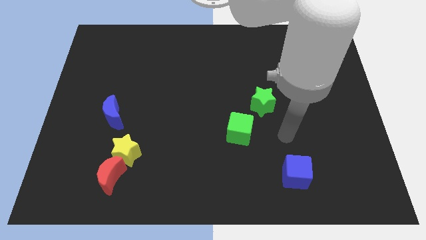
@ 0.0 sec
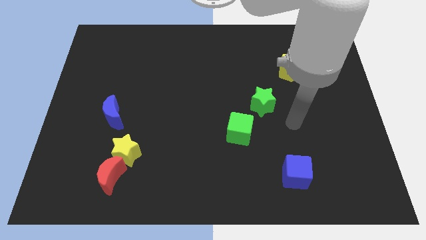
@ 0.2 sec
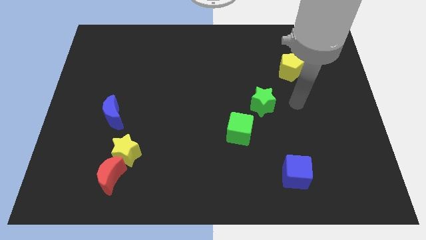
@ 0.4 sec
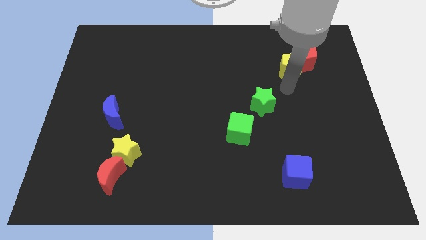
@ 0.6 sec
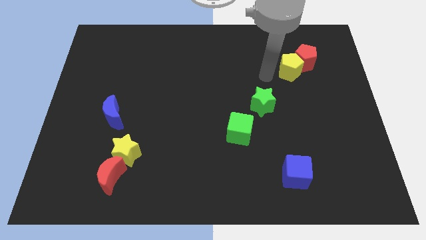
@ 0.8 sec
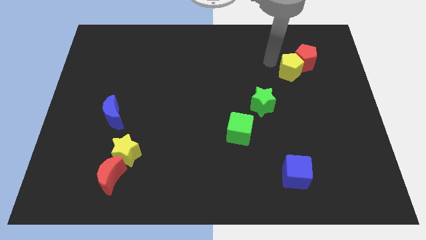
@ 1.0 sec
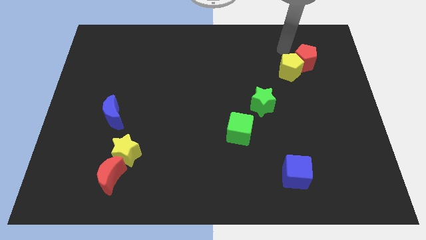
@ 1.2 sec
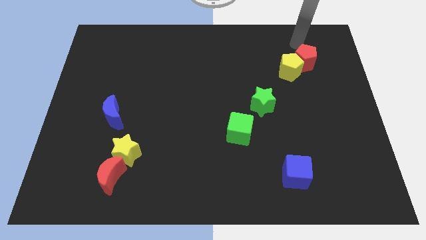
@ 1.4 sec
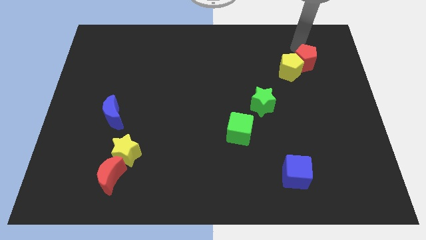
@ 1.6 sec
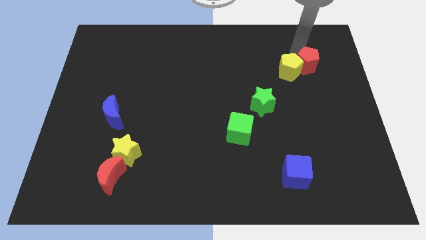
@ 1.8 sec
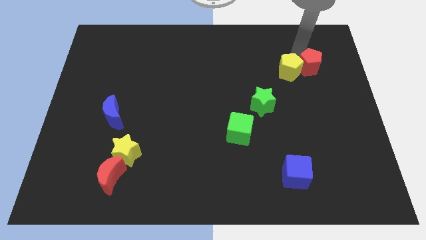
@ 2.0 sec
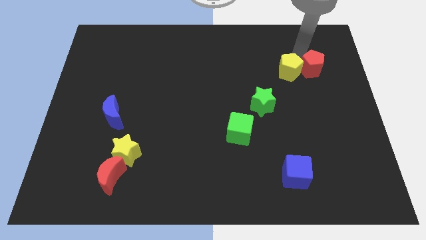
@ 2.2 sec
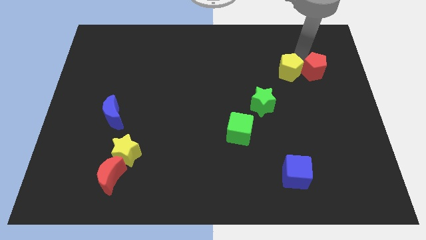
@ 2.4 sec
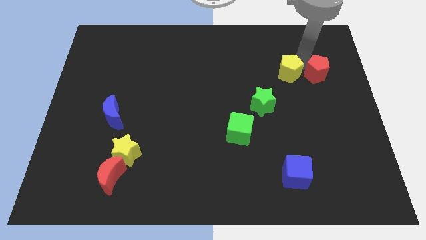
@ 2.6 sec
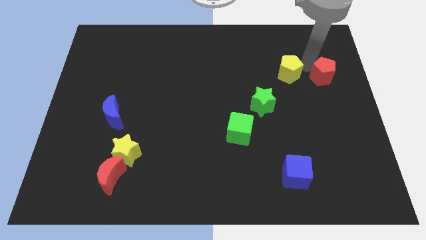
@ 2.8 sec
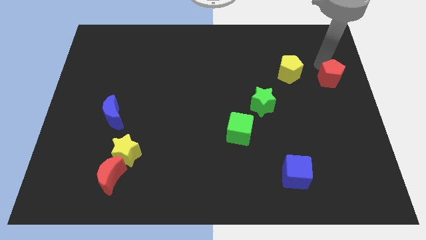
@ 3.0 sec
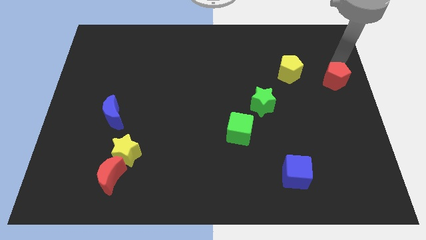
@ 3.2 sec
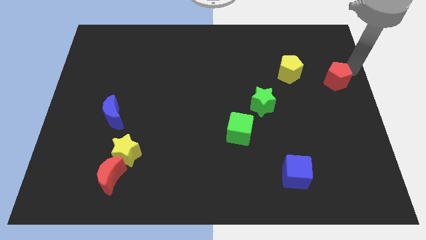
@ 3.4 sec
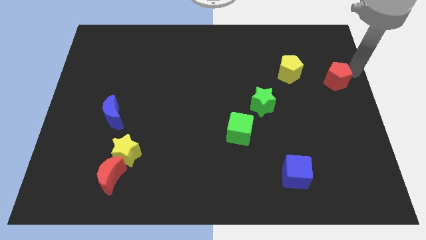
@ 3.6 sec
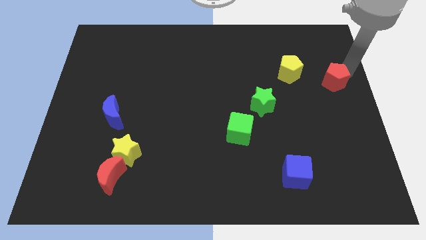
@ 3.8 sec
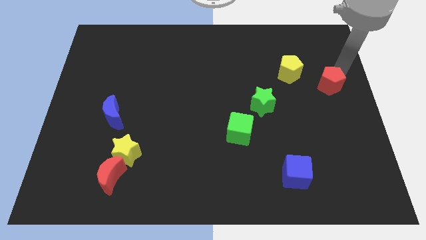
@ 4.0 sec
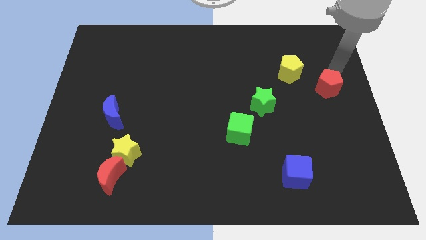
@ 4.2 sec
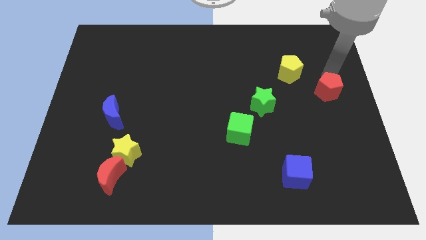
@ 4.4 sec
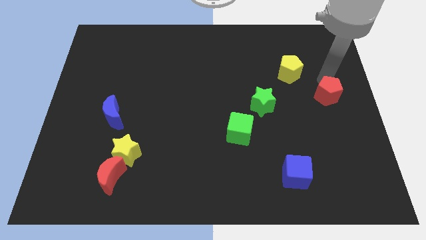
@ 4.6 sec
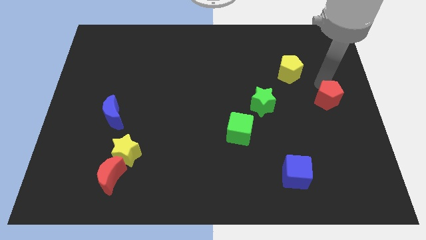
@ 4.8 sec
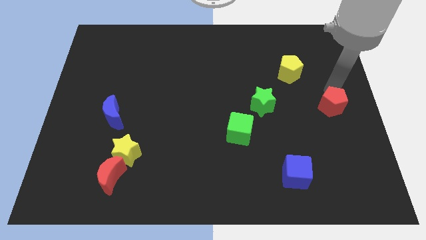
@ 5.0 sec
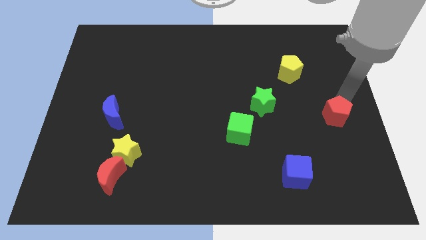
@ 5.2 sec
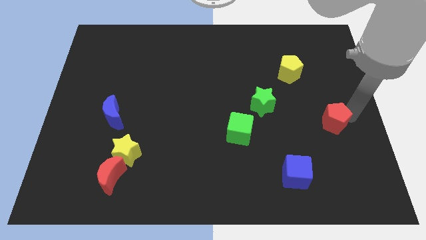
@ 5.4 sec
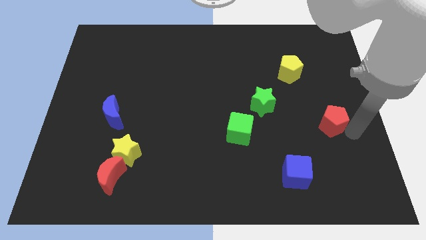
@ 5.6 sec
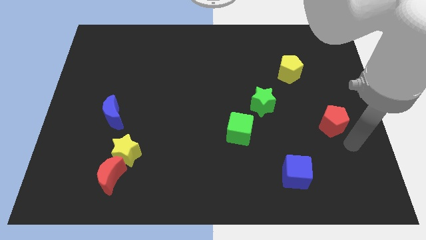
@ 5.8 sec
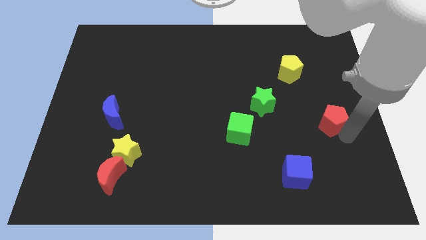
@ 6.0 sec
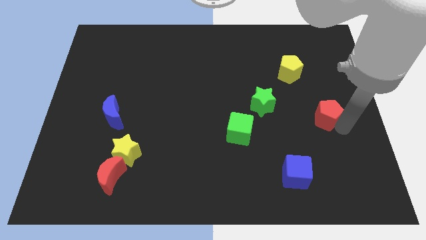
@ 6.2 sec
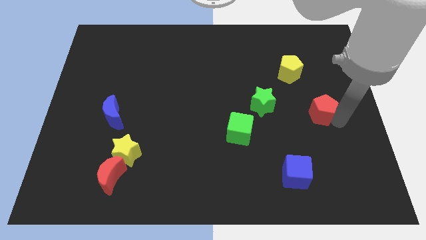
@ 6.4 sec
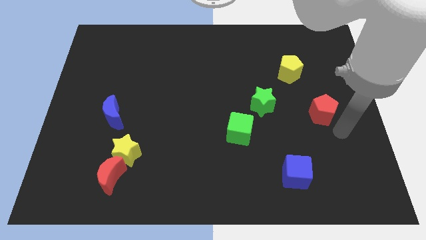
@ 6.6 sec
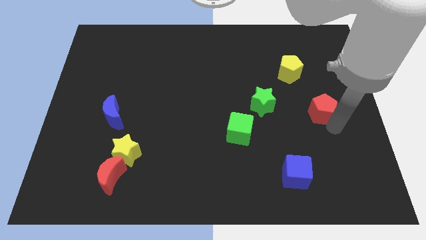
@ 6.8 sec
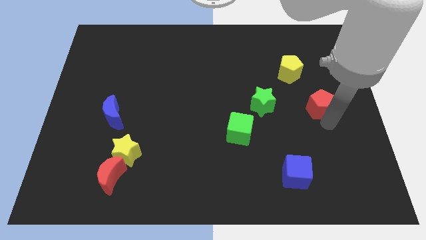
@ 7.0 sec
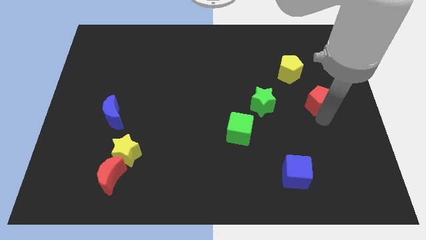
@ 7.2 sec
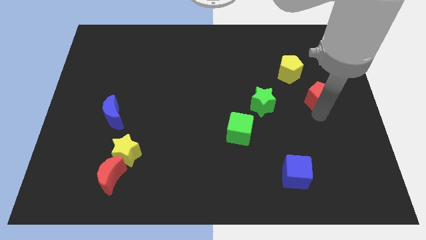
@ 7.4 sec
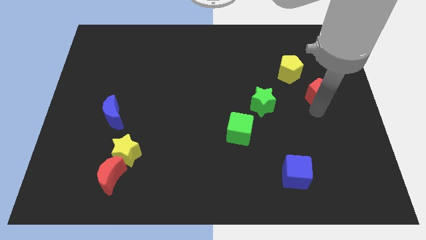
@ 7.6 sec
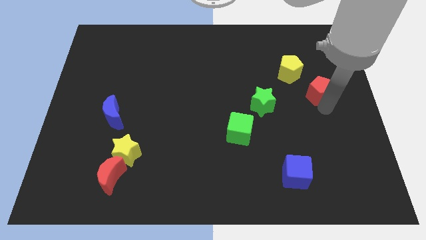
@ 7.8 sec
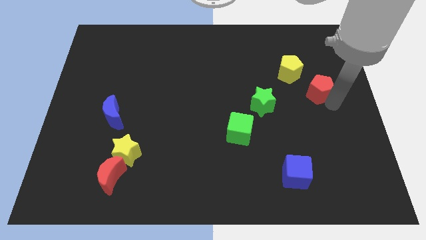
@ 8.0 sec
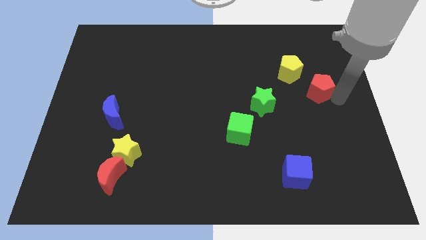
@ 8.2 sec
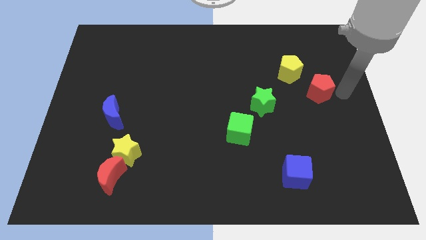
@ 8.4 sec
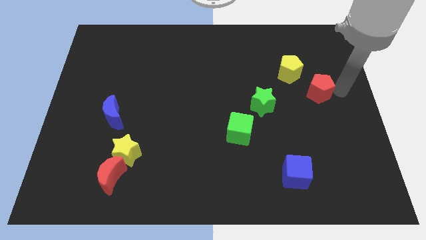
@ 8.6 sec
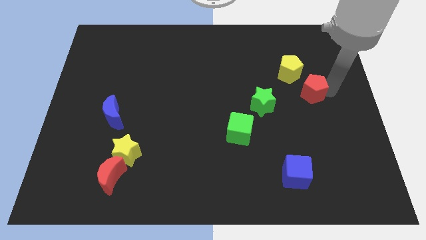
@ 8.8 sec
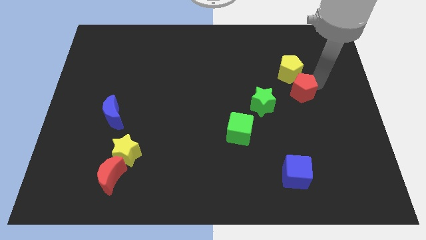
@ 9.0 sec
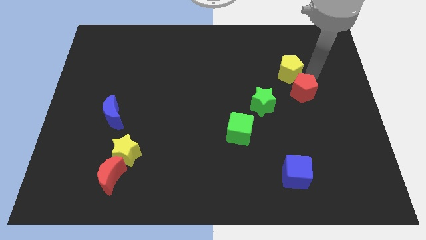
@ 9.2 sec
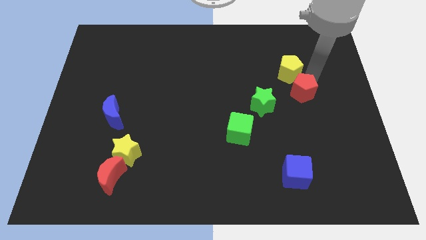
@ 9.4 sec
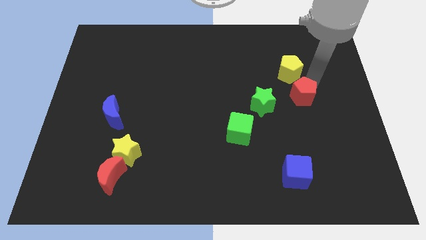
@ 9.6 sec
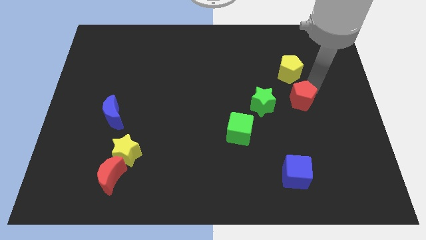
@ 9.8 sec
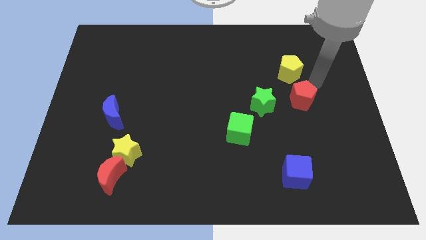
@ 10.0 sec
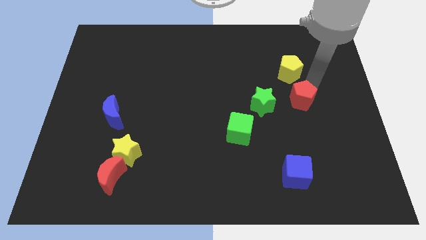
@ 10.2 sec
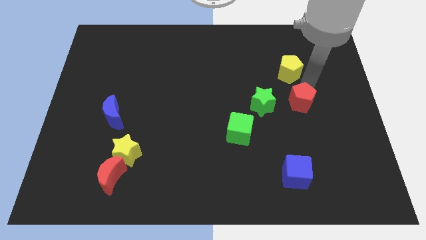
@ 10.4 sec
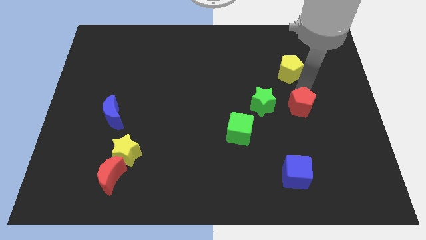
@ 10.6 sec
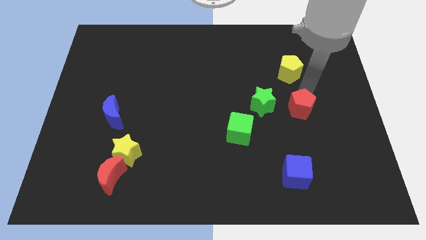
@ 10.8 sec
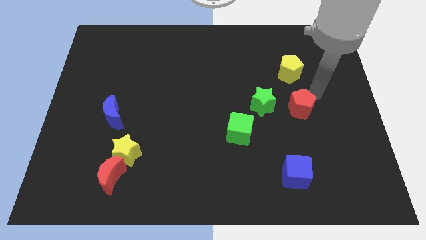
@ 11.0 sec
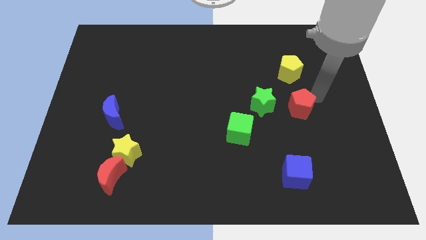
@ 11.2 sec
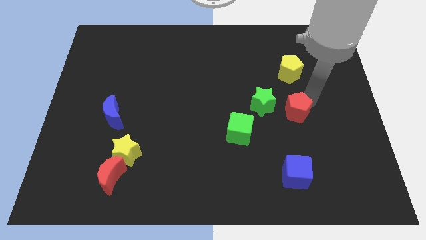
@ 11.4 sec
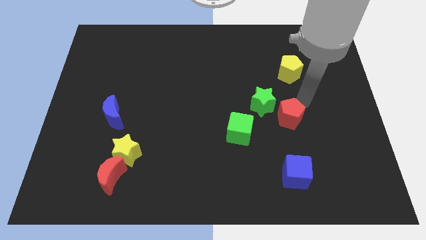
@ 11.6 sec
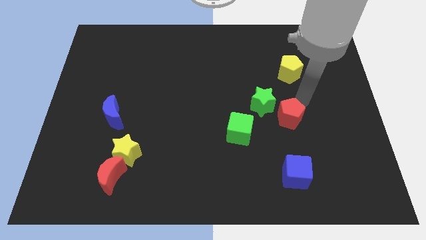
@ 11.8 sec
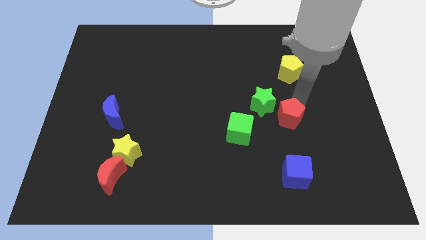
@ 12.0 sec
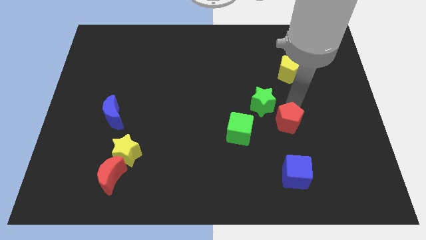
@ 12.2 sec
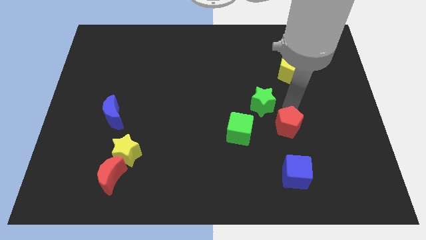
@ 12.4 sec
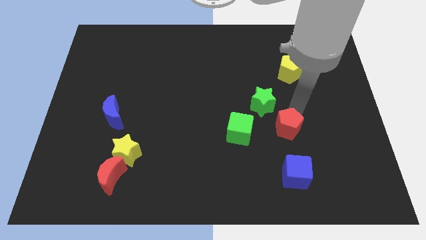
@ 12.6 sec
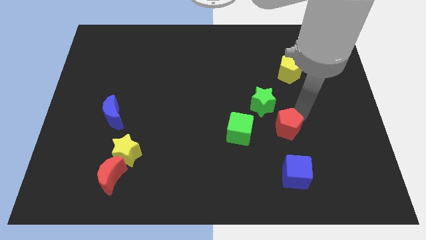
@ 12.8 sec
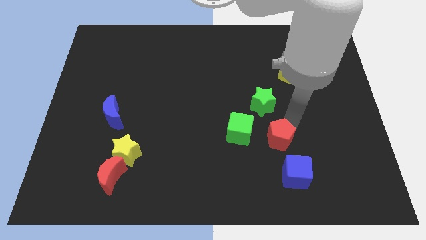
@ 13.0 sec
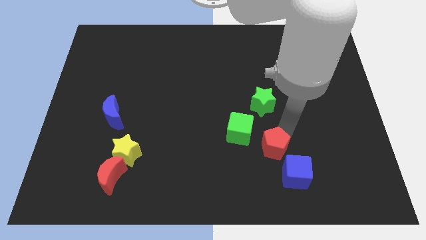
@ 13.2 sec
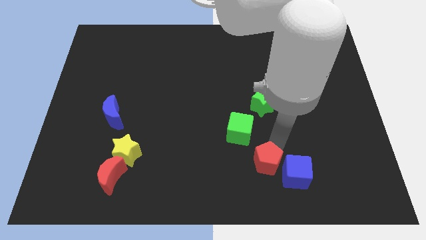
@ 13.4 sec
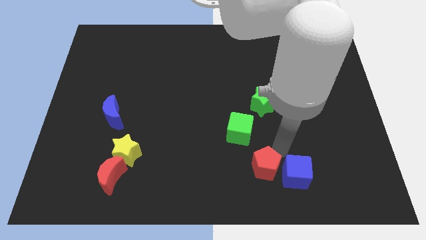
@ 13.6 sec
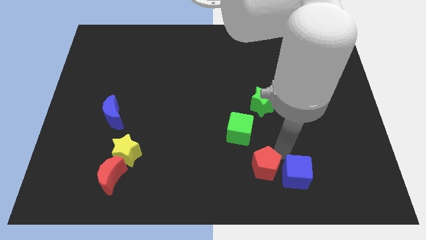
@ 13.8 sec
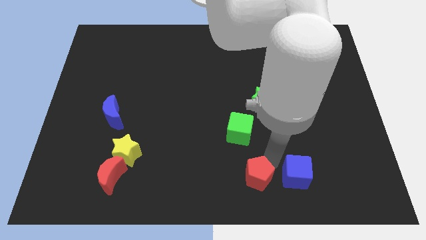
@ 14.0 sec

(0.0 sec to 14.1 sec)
put the red pentagon to the bottom
